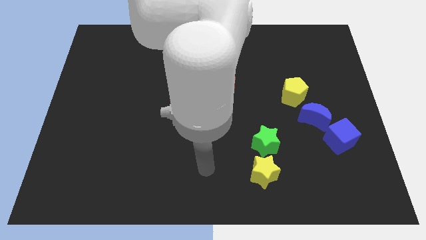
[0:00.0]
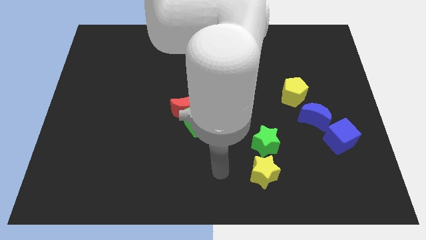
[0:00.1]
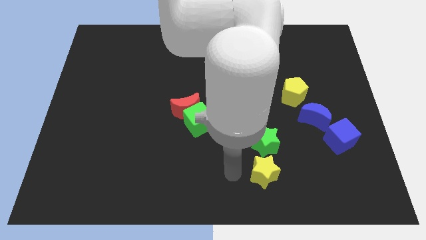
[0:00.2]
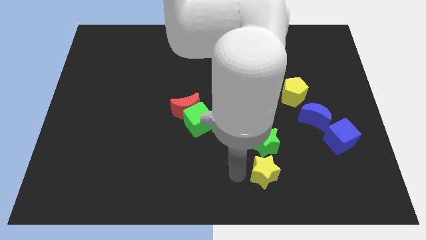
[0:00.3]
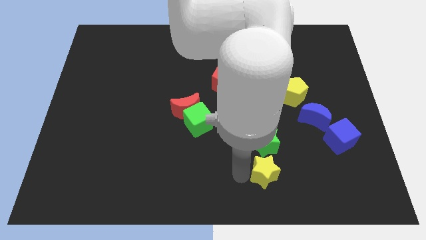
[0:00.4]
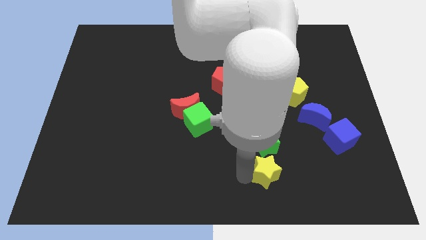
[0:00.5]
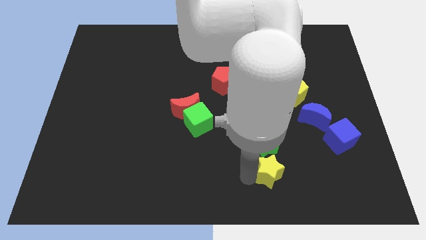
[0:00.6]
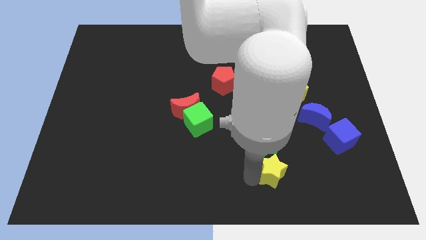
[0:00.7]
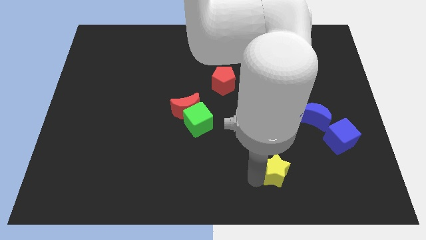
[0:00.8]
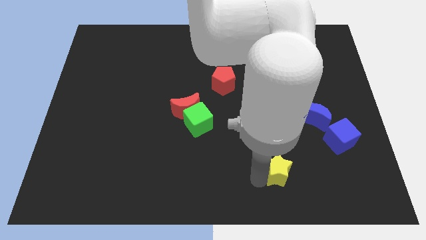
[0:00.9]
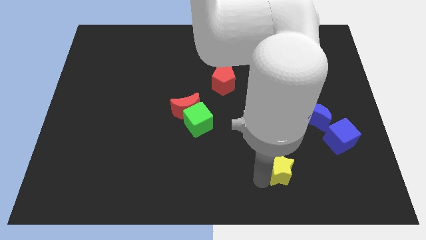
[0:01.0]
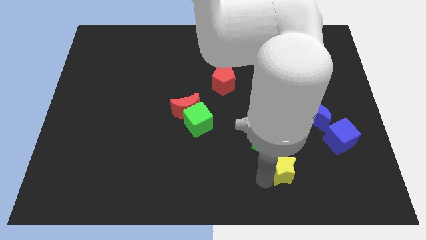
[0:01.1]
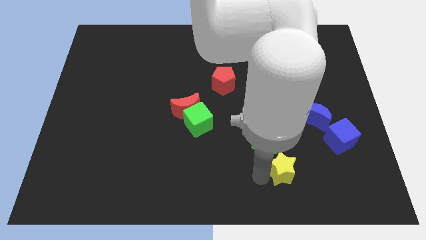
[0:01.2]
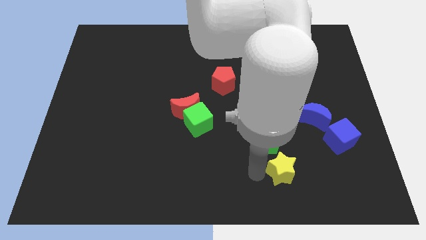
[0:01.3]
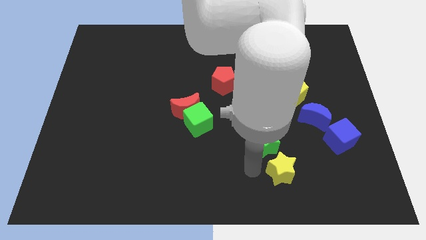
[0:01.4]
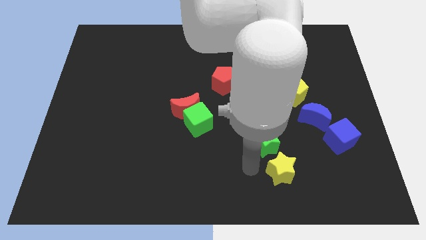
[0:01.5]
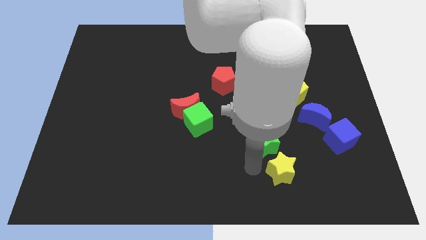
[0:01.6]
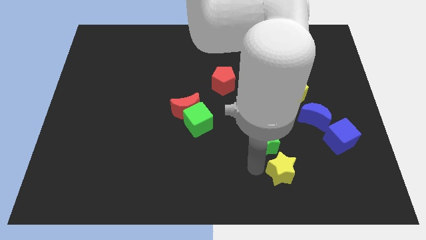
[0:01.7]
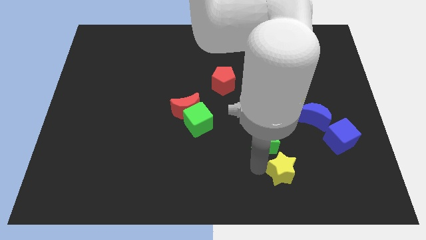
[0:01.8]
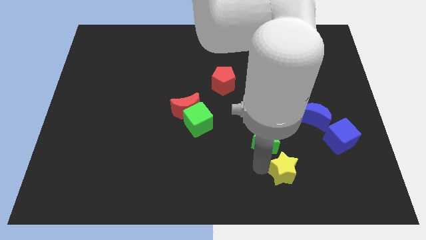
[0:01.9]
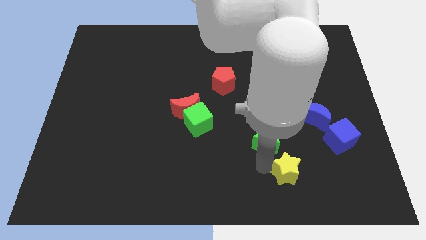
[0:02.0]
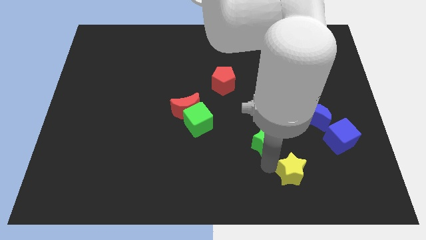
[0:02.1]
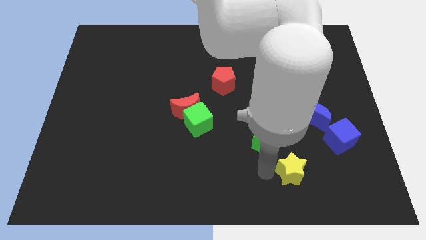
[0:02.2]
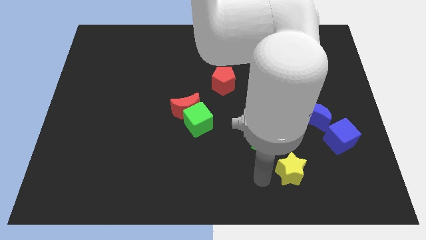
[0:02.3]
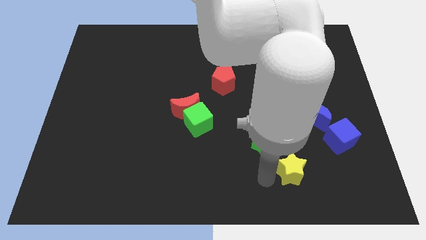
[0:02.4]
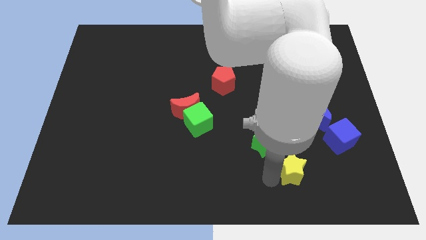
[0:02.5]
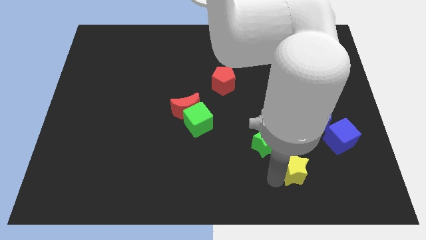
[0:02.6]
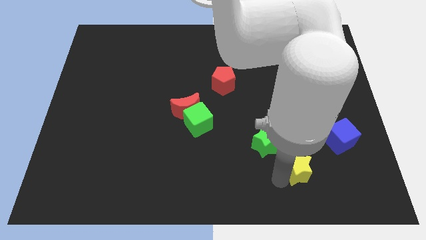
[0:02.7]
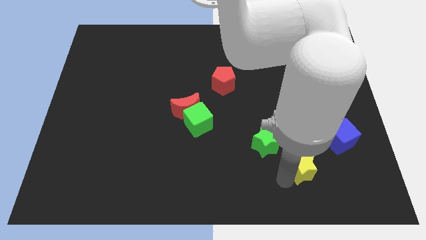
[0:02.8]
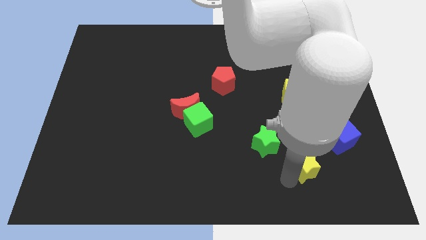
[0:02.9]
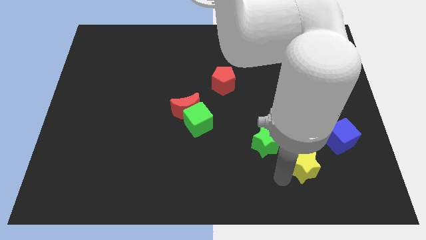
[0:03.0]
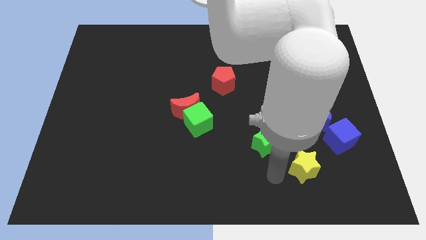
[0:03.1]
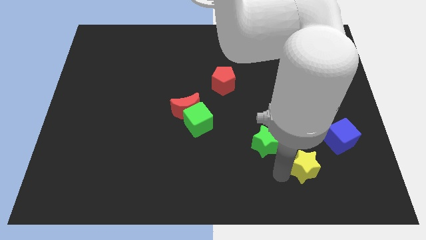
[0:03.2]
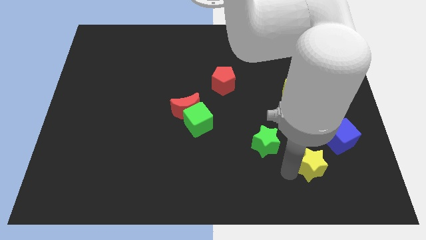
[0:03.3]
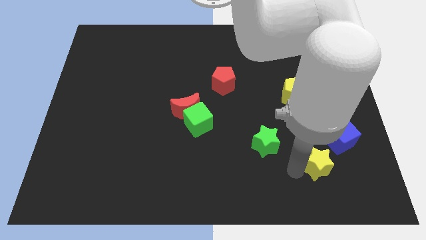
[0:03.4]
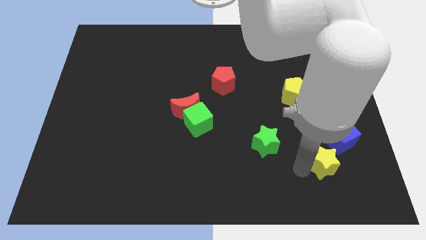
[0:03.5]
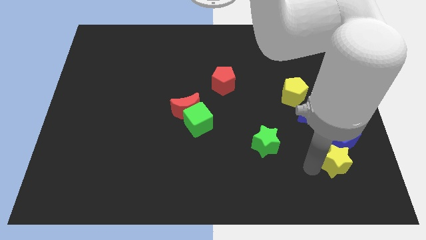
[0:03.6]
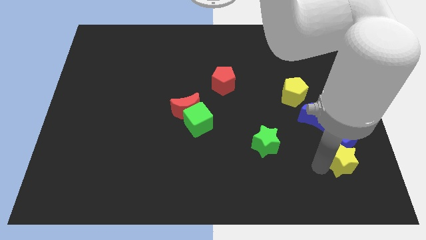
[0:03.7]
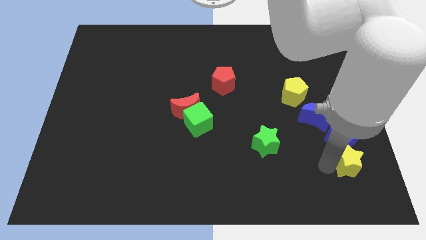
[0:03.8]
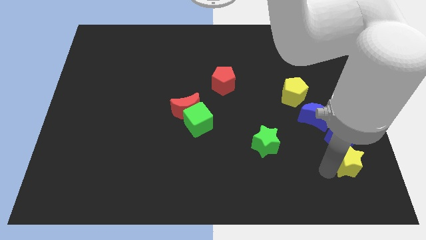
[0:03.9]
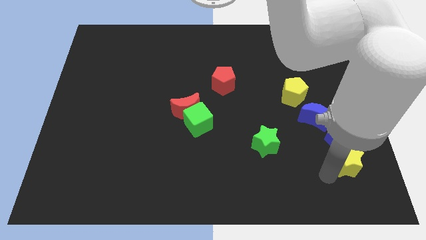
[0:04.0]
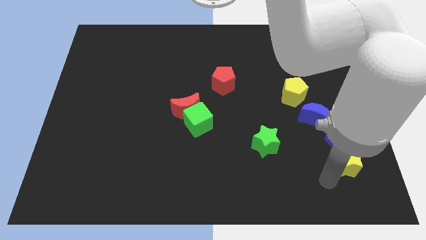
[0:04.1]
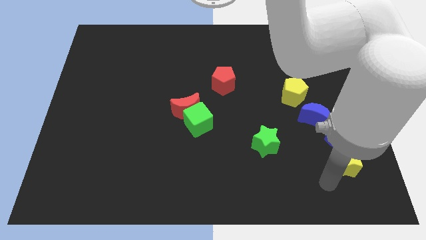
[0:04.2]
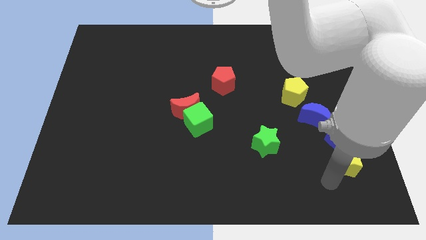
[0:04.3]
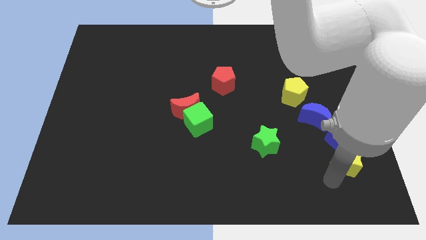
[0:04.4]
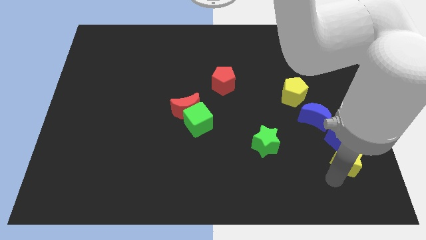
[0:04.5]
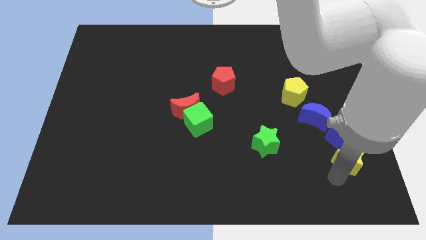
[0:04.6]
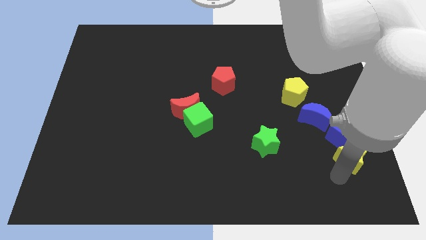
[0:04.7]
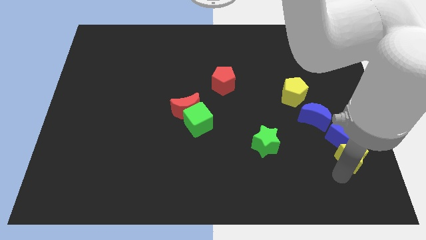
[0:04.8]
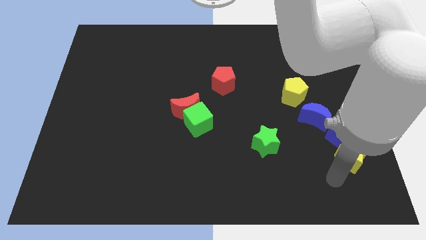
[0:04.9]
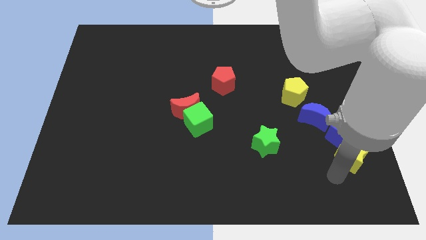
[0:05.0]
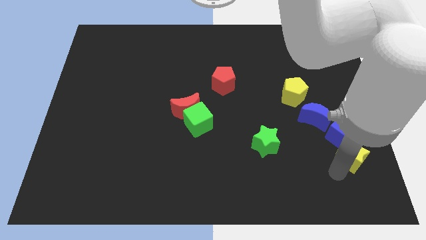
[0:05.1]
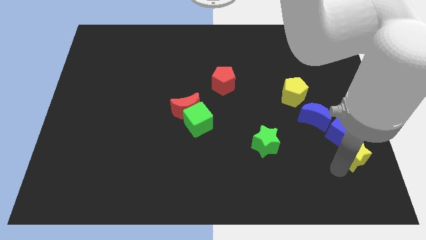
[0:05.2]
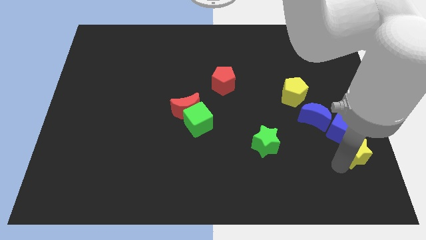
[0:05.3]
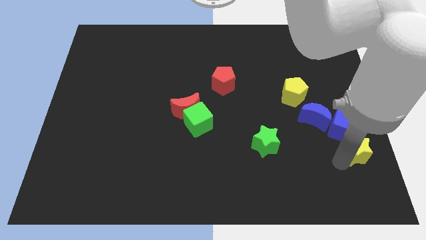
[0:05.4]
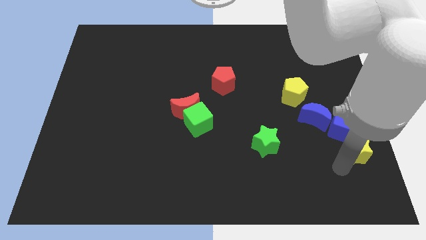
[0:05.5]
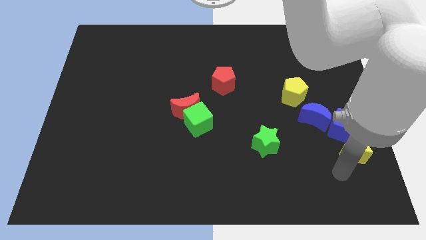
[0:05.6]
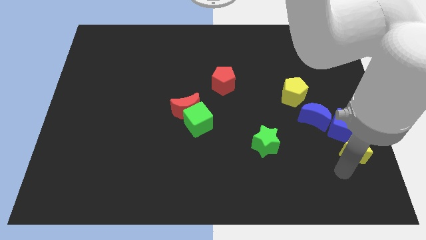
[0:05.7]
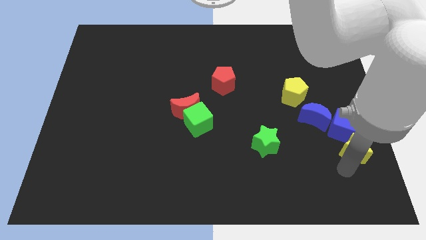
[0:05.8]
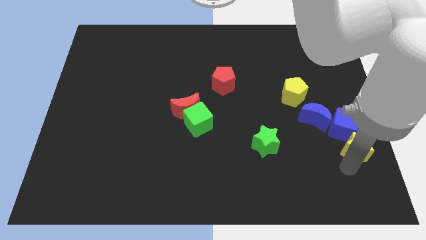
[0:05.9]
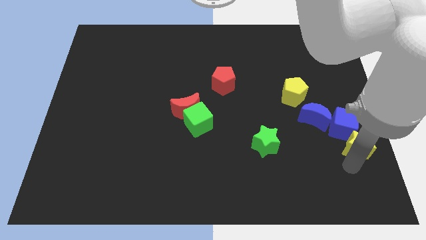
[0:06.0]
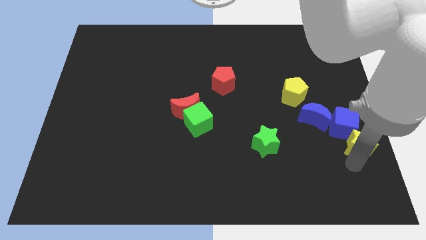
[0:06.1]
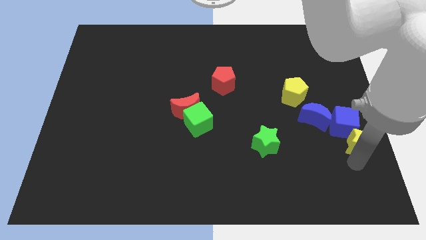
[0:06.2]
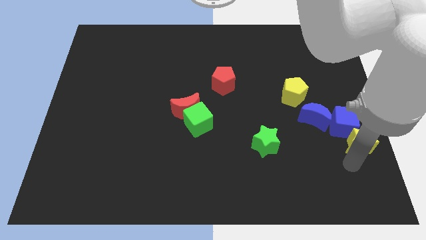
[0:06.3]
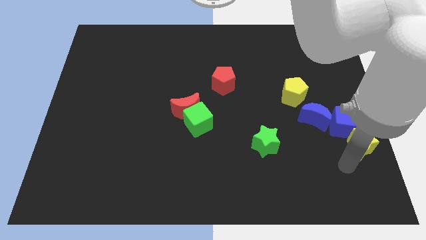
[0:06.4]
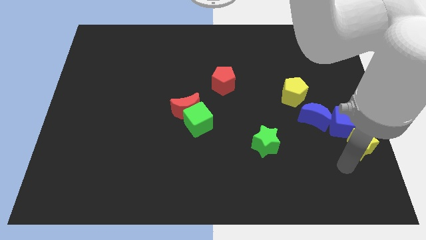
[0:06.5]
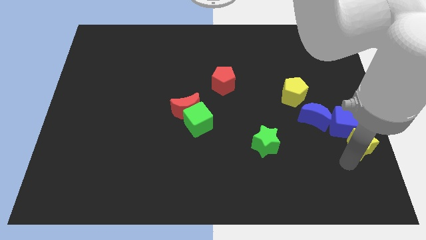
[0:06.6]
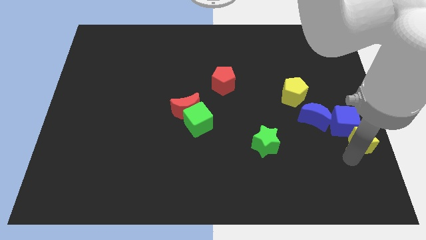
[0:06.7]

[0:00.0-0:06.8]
slide the yellow star to the right side of the board
